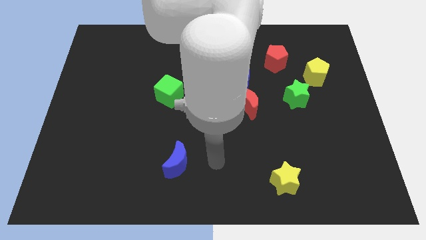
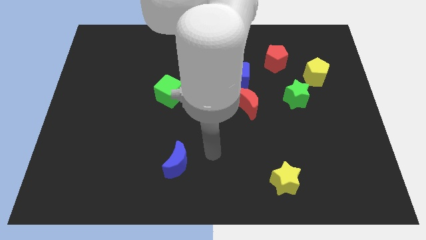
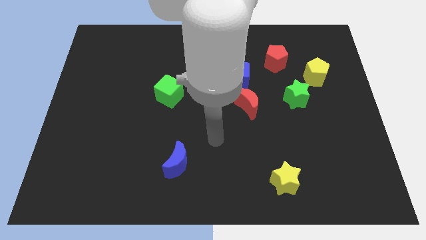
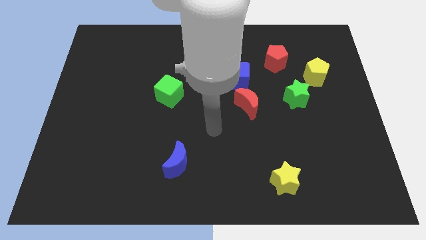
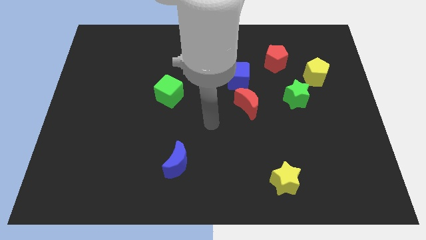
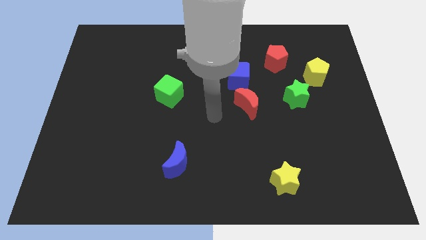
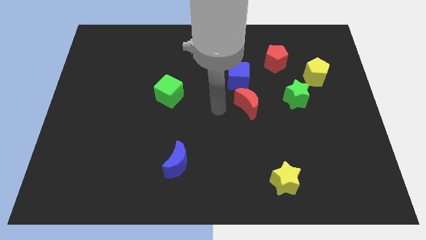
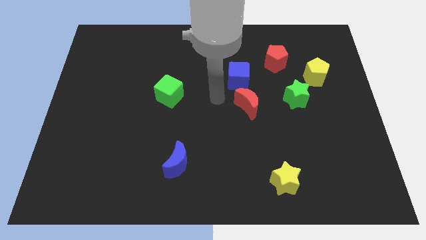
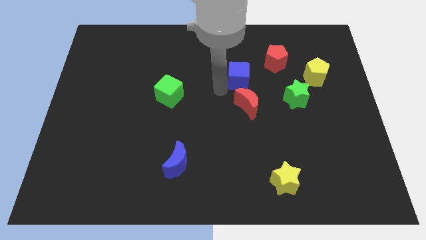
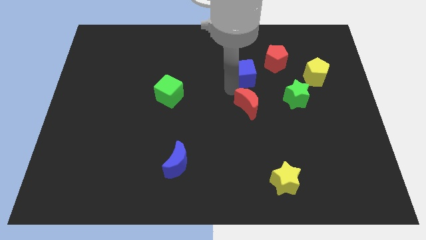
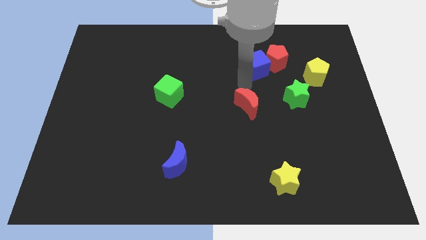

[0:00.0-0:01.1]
move the red moon away from the blue cube

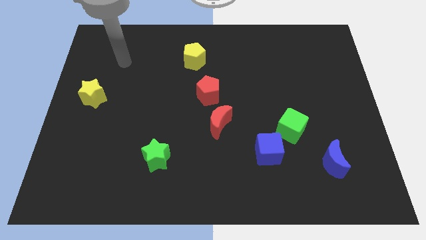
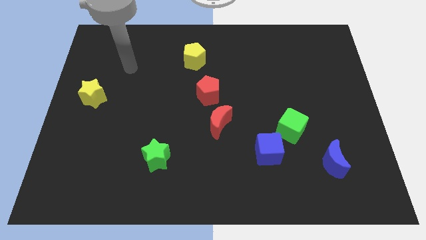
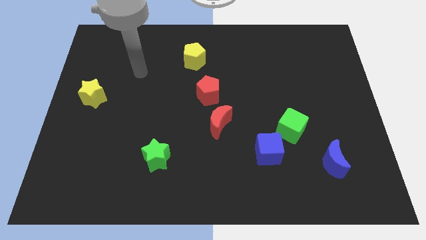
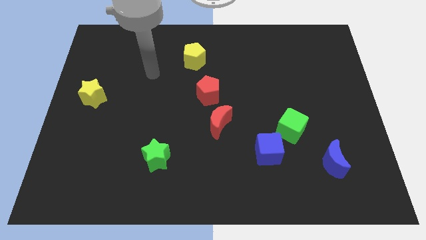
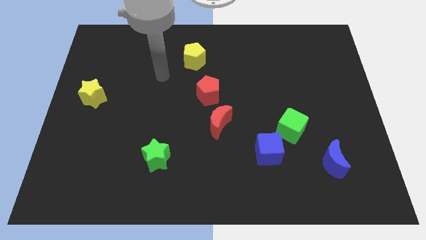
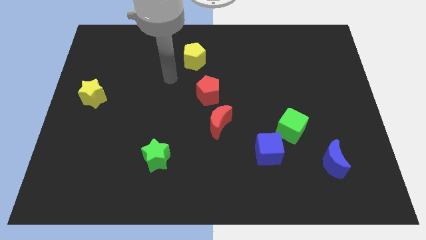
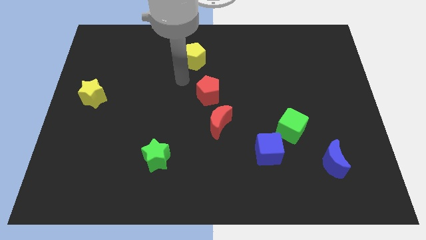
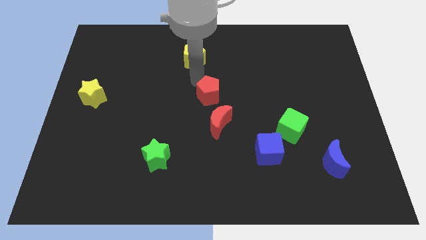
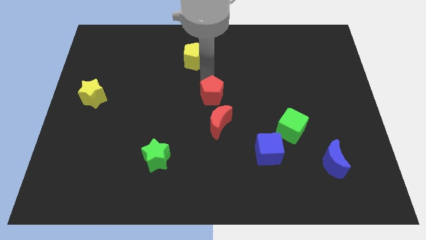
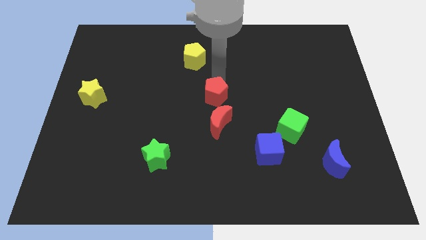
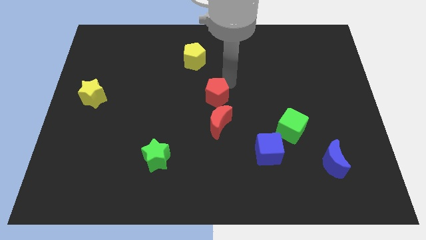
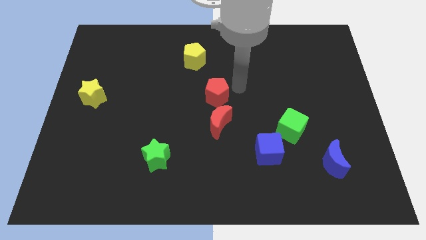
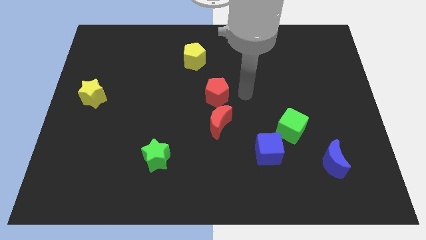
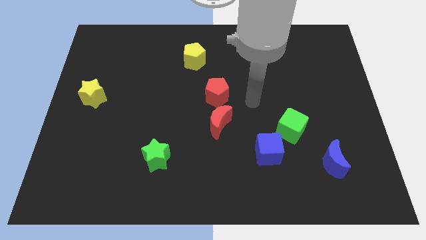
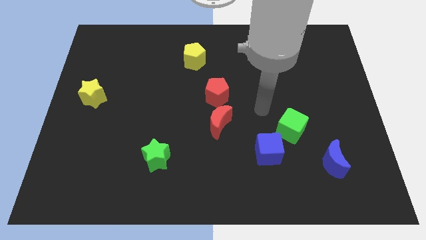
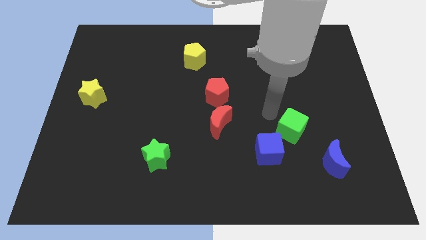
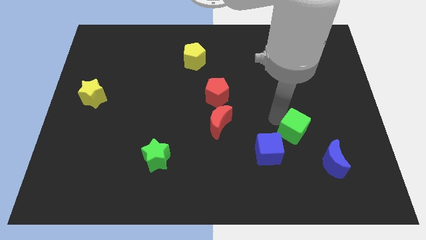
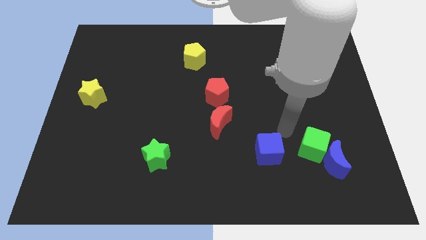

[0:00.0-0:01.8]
pull the blue cube apart from the green cube

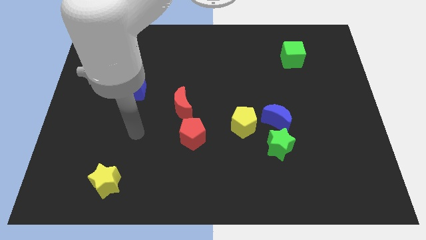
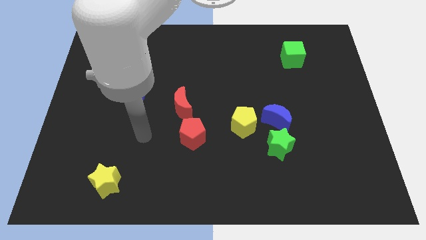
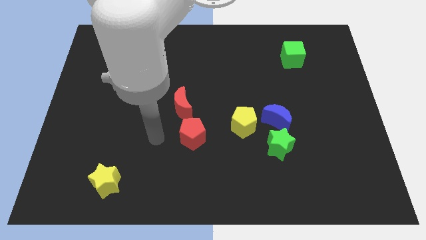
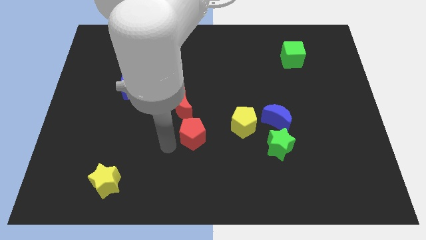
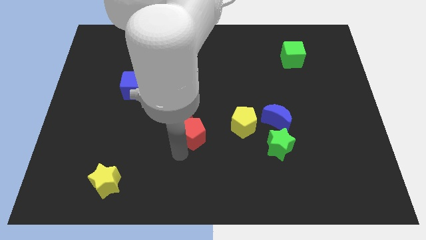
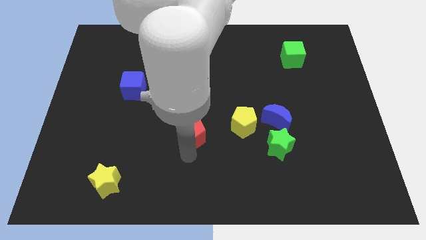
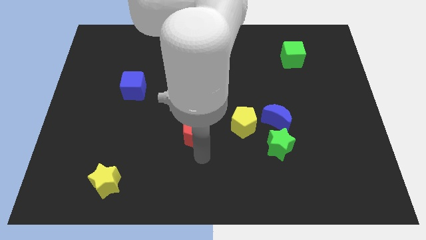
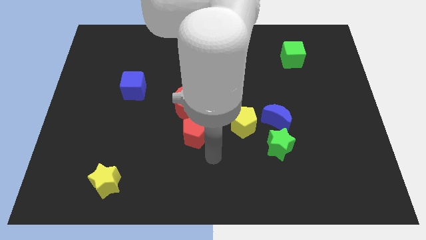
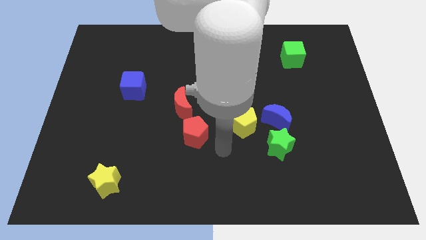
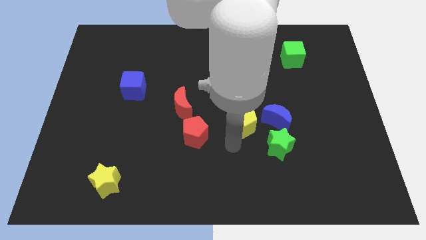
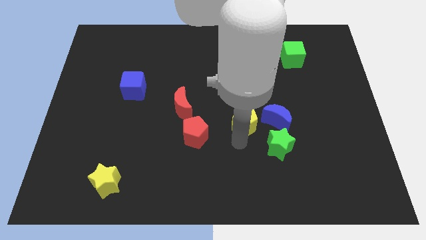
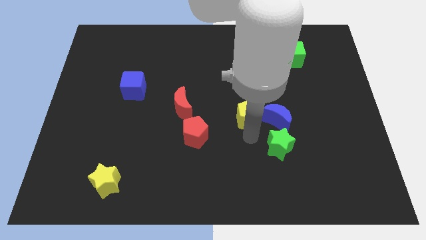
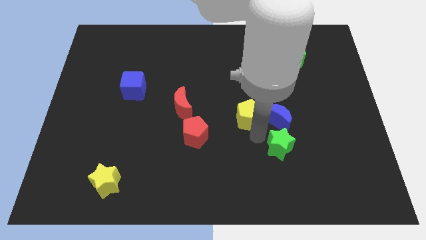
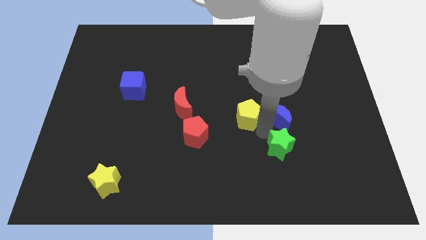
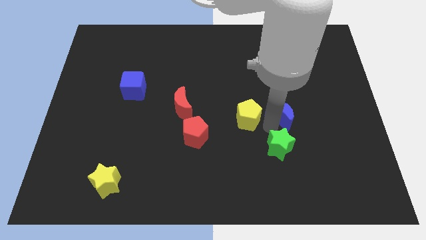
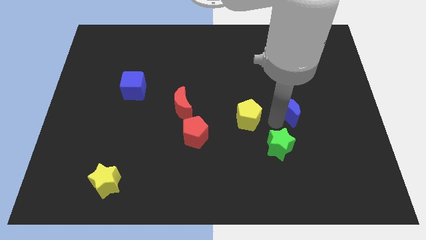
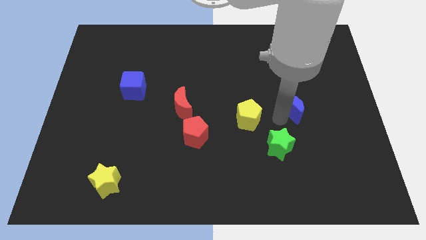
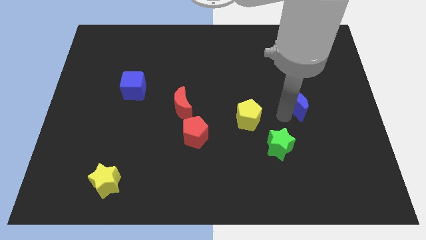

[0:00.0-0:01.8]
move the blue moon away from the green star and yellow pentagon

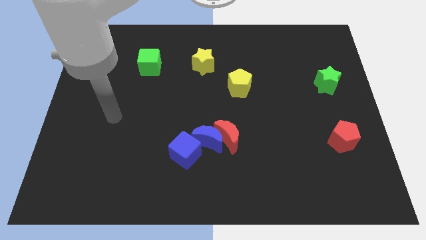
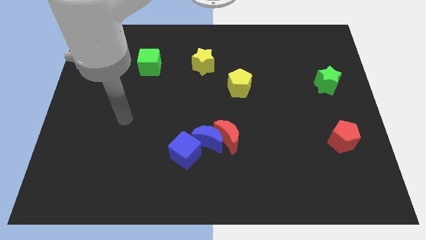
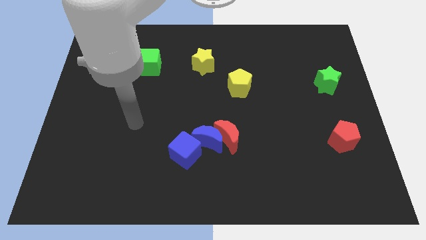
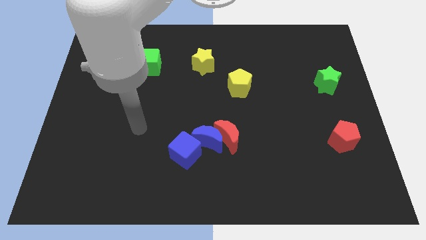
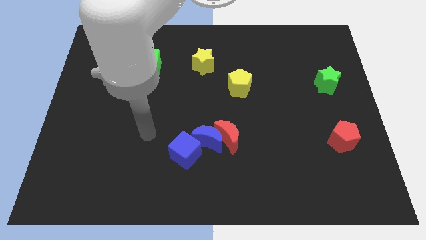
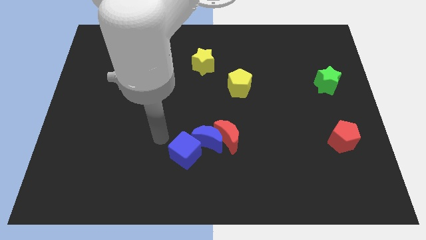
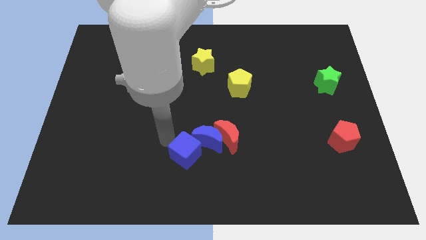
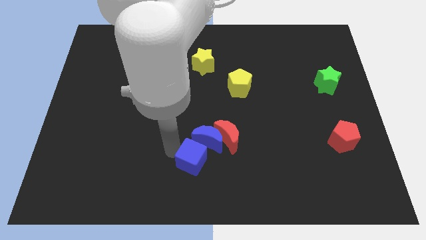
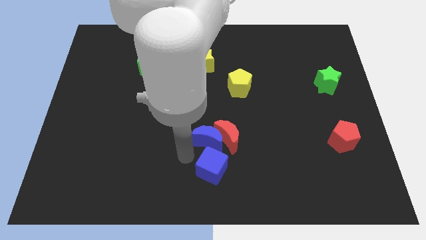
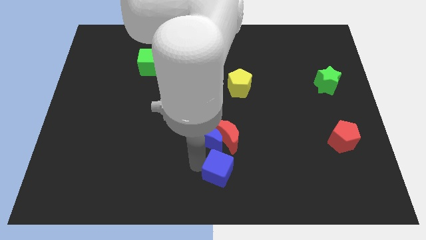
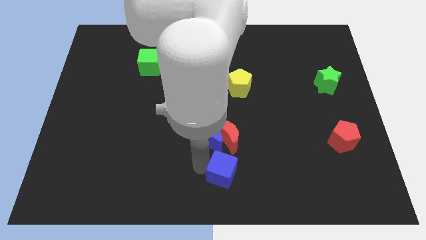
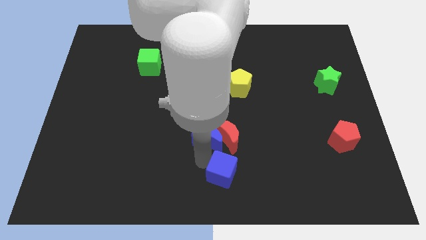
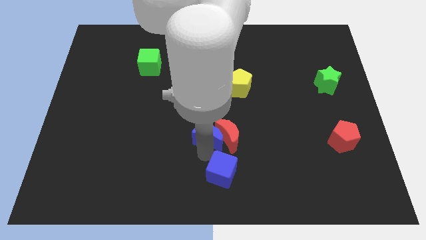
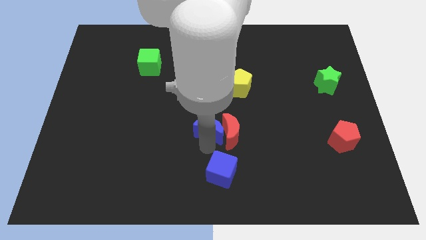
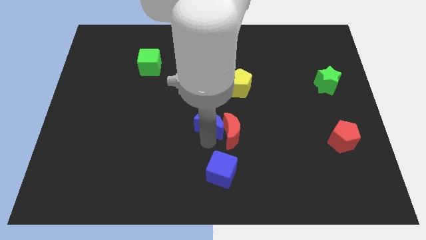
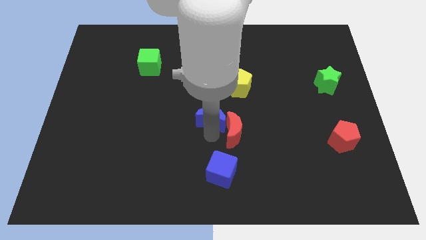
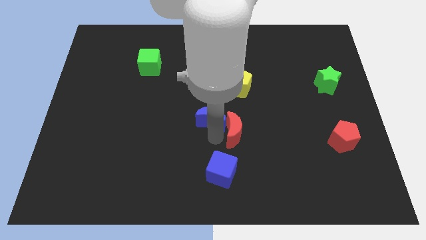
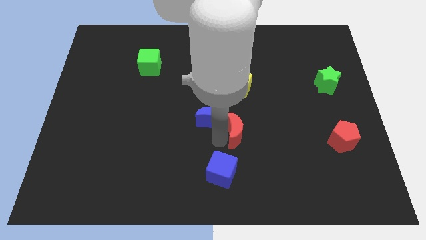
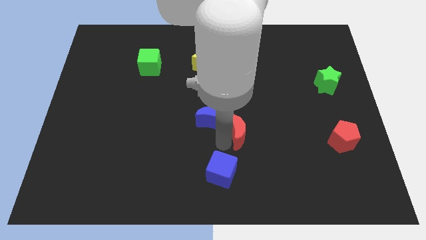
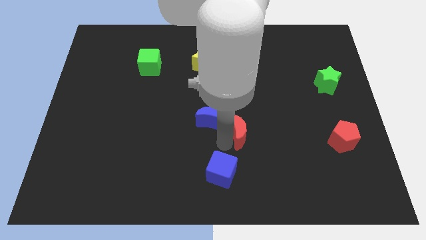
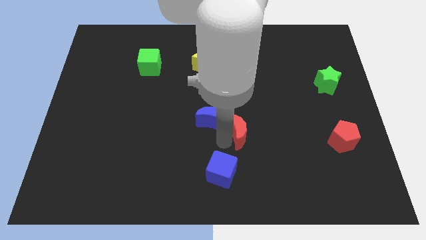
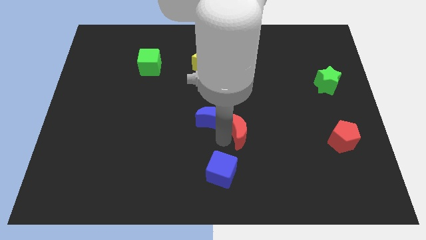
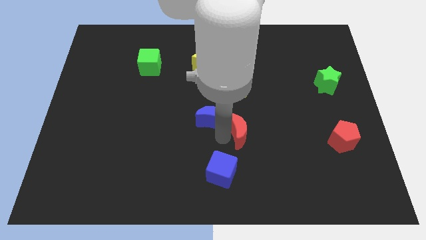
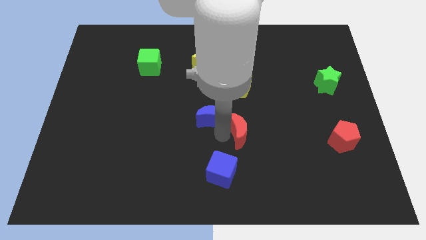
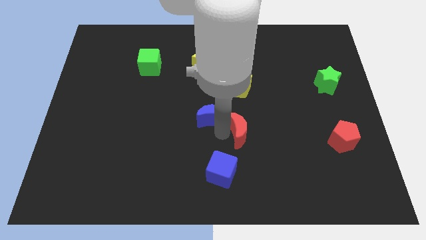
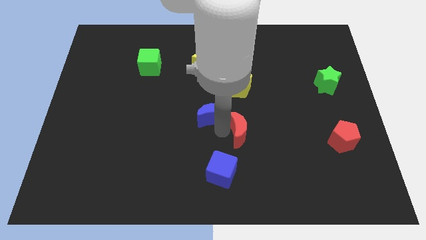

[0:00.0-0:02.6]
separate the blue moon from the red moon and blue cube

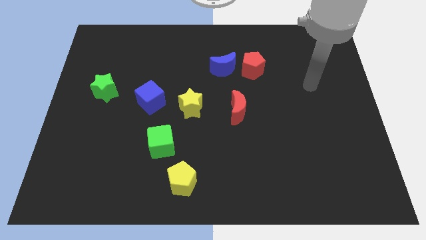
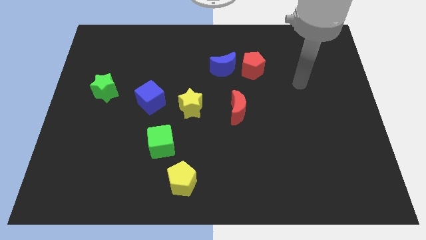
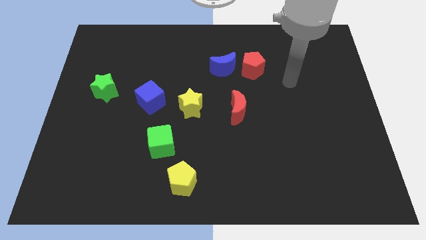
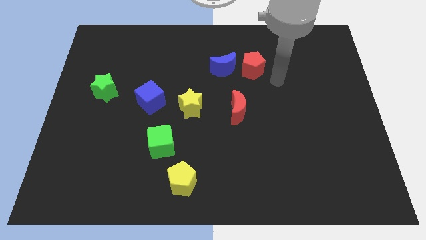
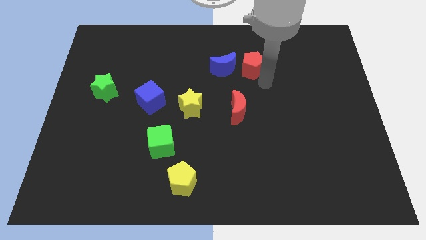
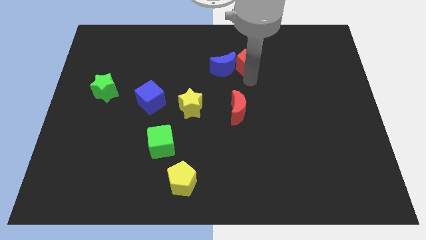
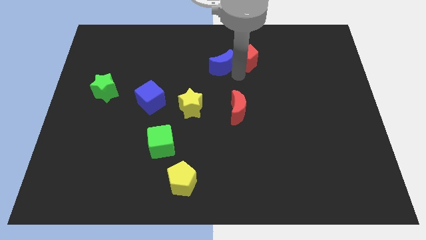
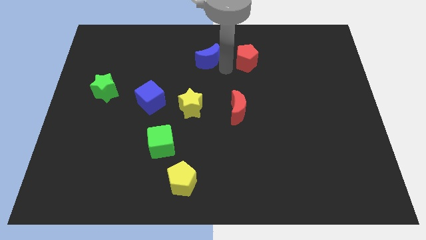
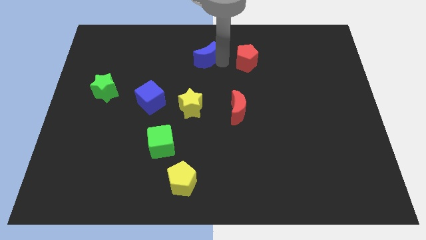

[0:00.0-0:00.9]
pull the red pentagon apart from the blue moon

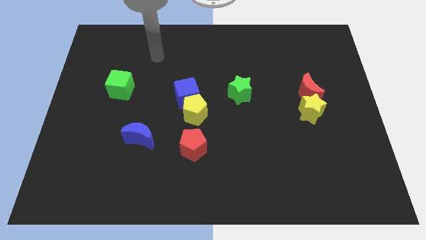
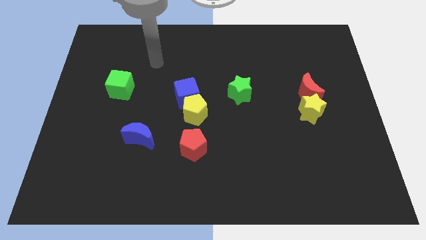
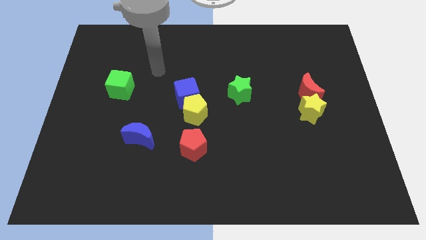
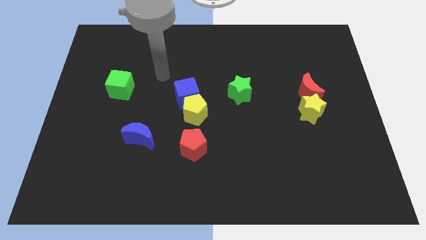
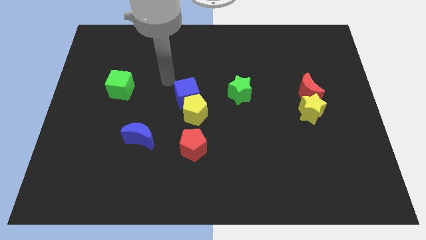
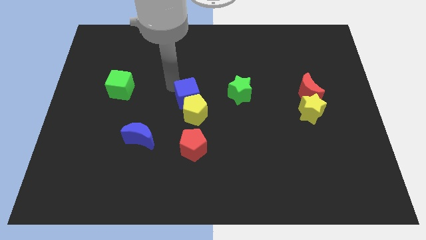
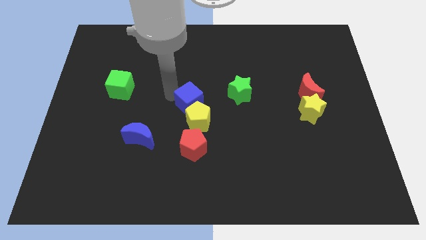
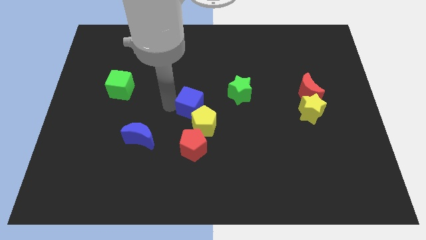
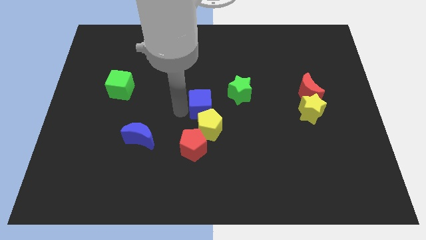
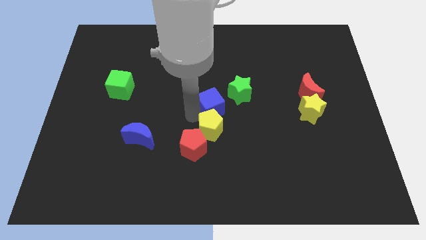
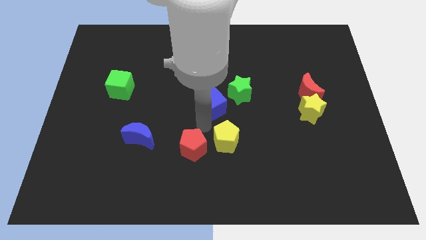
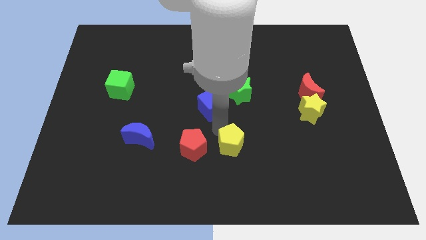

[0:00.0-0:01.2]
pull the blue cube apart from the yellow pentagon
